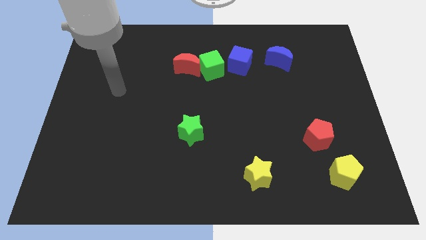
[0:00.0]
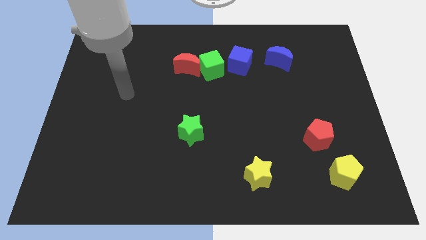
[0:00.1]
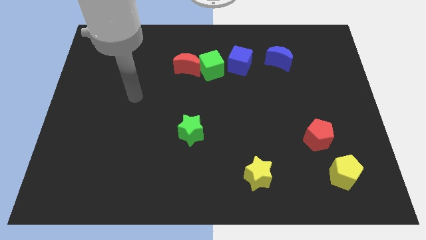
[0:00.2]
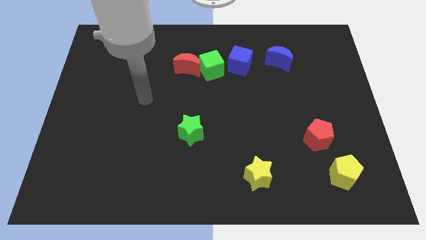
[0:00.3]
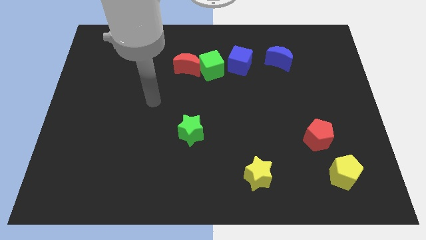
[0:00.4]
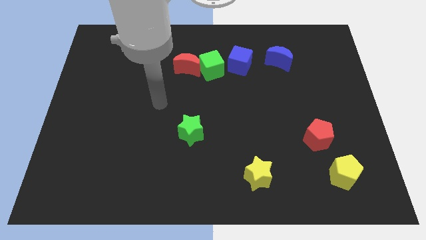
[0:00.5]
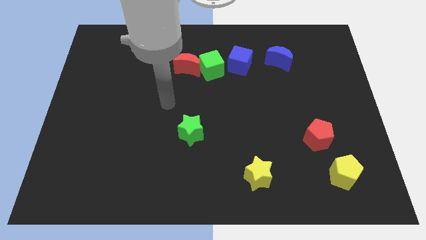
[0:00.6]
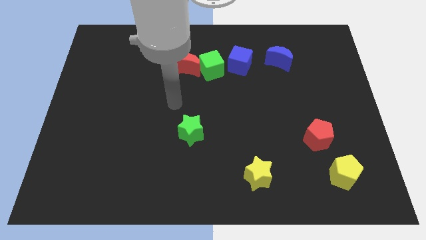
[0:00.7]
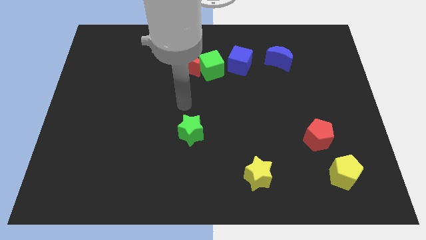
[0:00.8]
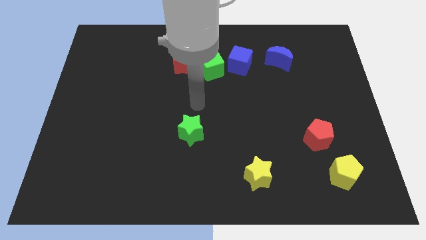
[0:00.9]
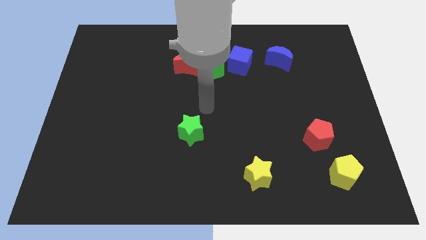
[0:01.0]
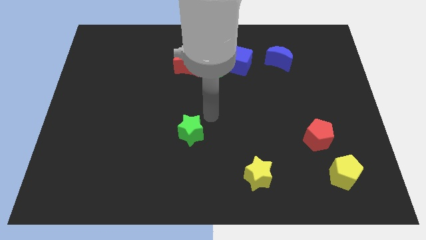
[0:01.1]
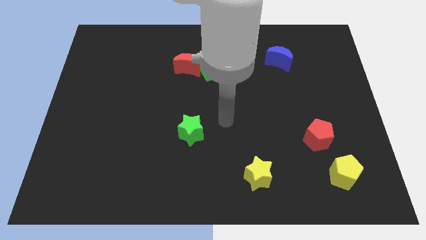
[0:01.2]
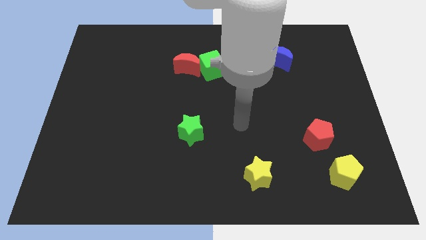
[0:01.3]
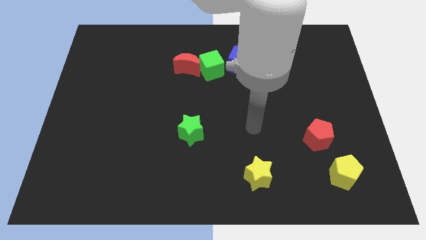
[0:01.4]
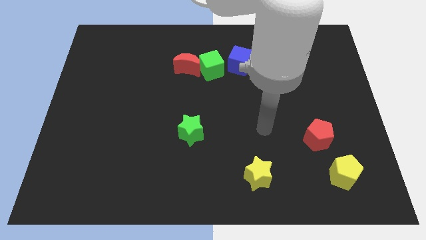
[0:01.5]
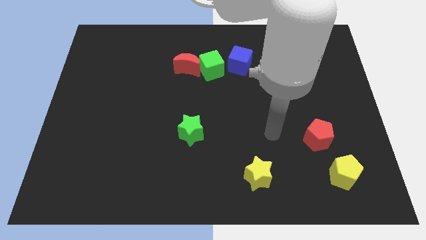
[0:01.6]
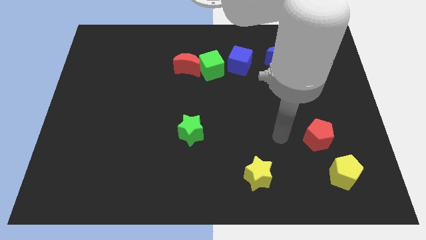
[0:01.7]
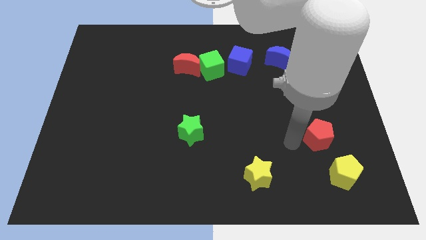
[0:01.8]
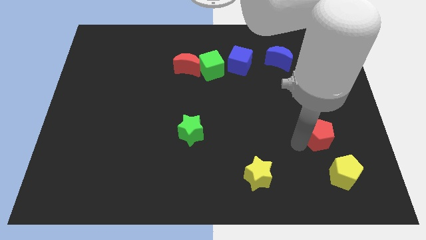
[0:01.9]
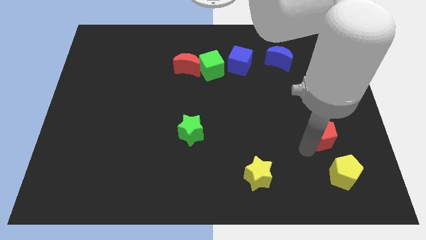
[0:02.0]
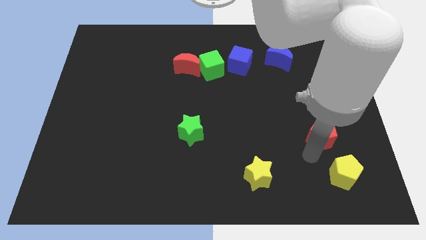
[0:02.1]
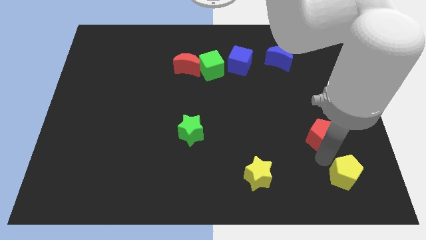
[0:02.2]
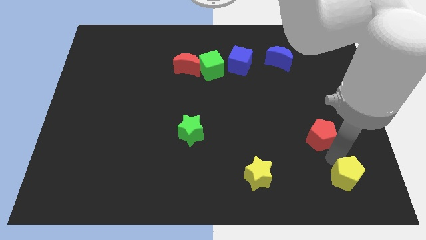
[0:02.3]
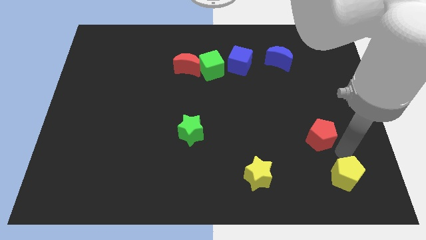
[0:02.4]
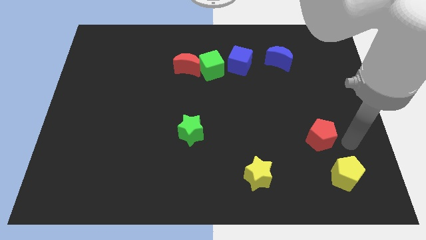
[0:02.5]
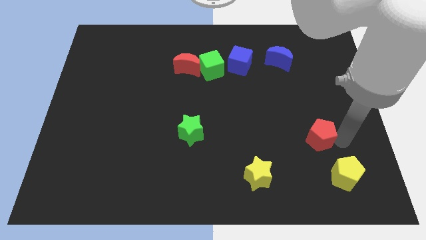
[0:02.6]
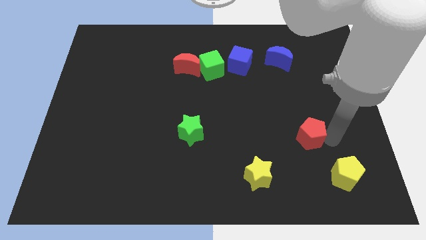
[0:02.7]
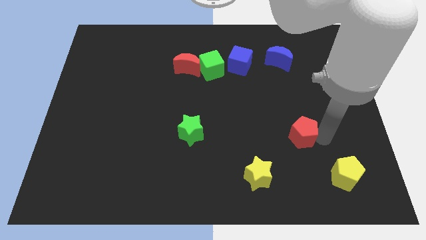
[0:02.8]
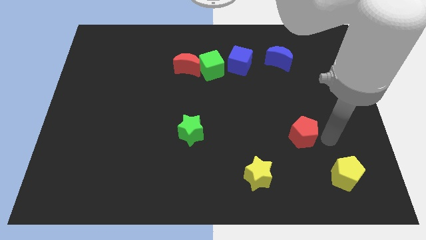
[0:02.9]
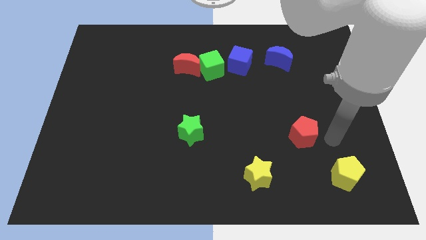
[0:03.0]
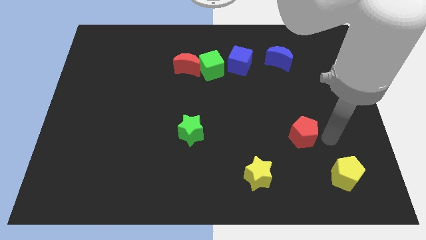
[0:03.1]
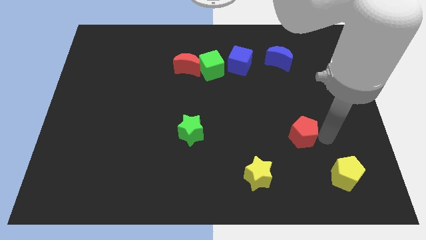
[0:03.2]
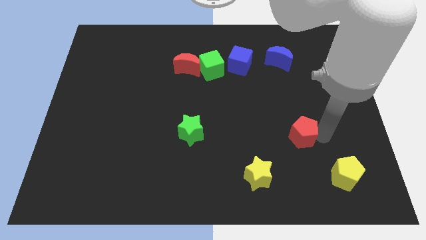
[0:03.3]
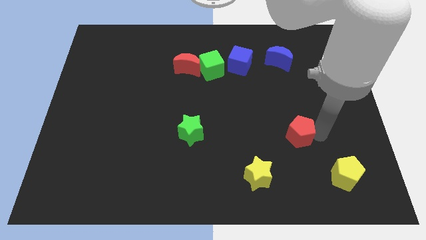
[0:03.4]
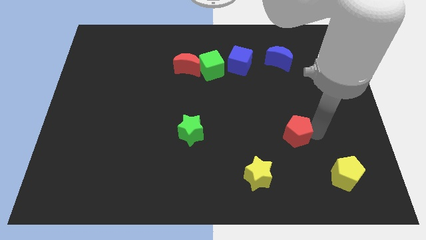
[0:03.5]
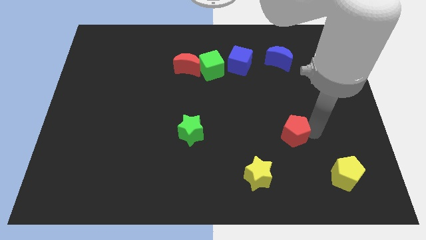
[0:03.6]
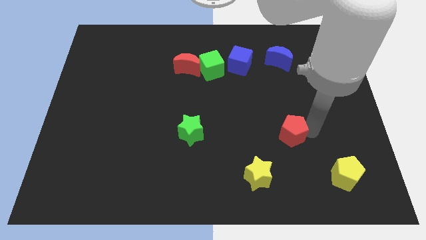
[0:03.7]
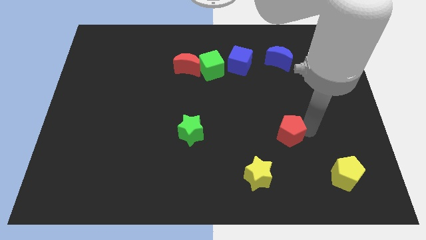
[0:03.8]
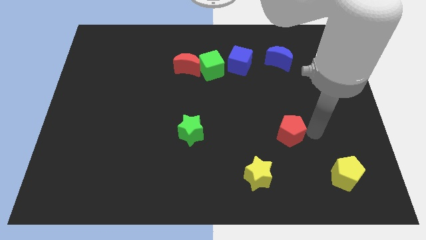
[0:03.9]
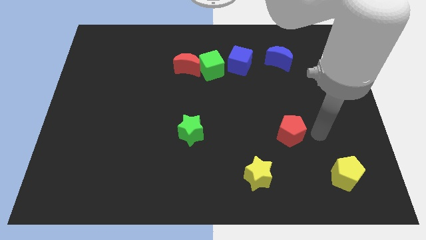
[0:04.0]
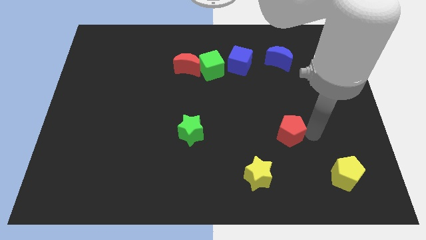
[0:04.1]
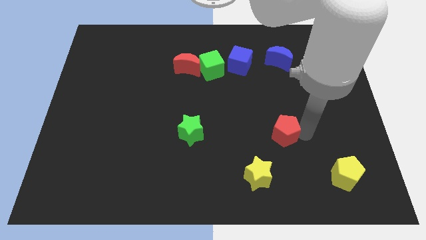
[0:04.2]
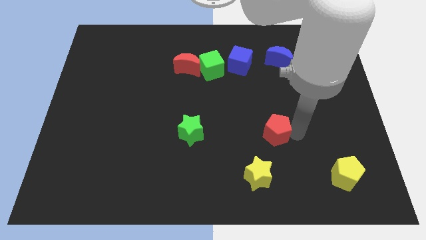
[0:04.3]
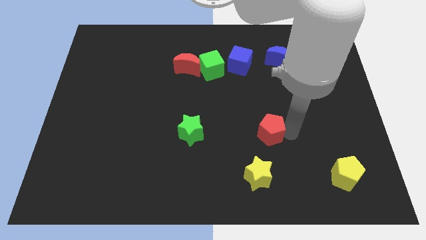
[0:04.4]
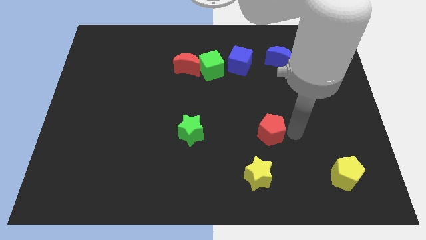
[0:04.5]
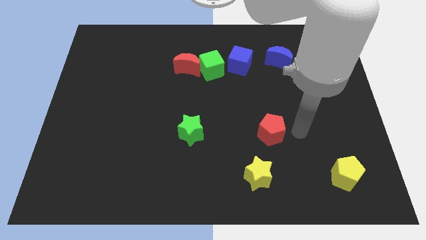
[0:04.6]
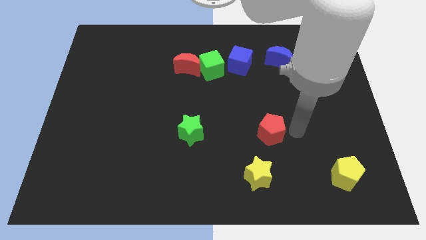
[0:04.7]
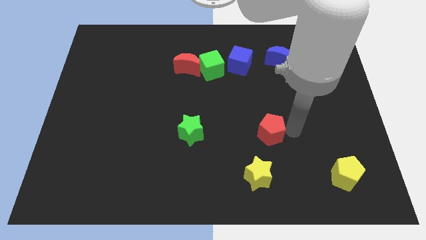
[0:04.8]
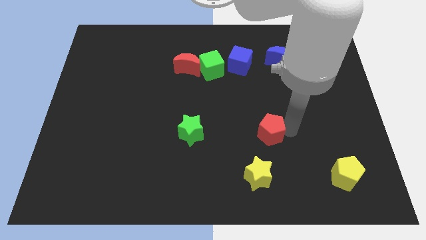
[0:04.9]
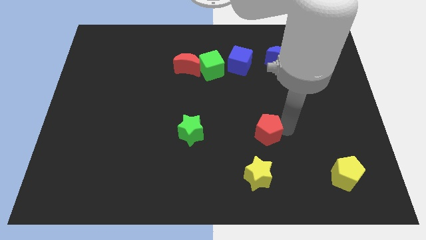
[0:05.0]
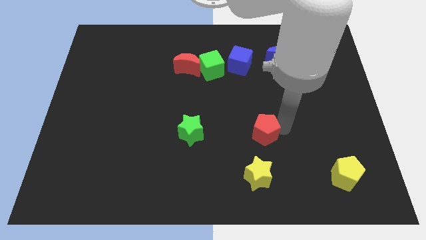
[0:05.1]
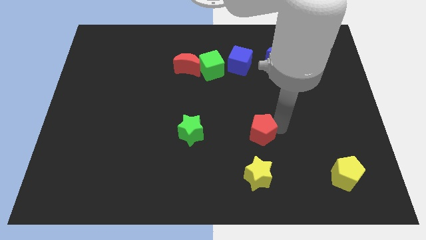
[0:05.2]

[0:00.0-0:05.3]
slide the red pentagon to the right side of the green star

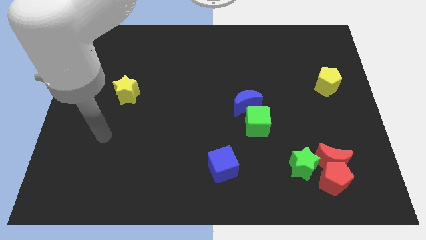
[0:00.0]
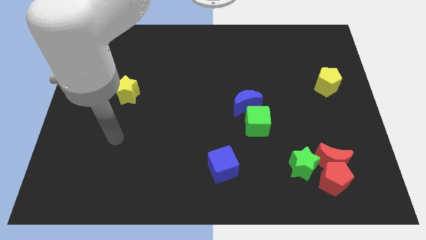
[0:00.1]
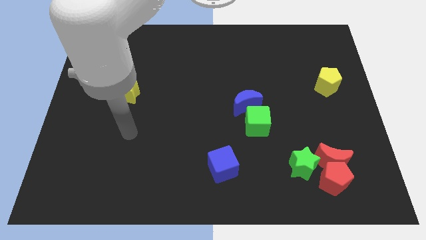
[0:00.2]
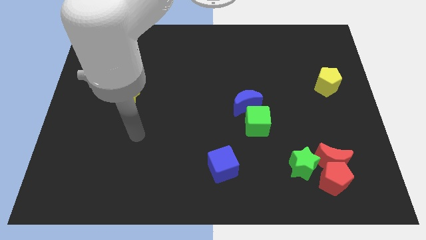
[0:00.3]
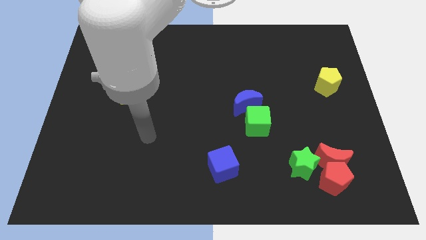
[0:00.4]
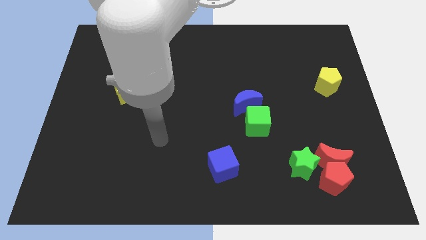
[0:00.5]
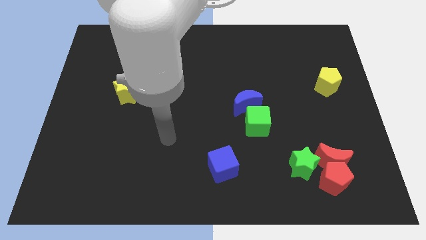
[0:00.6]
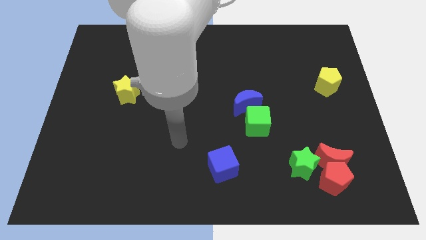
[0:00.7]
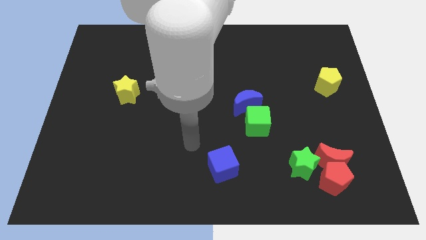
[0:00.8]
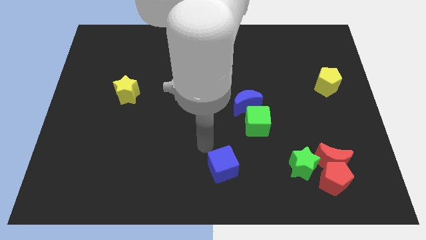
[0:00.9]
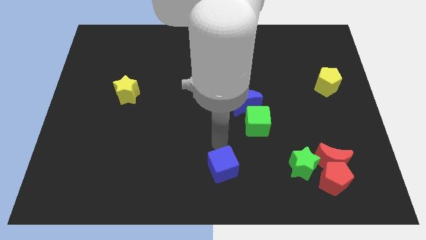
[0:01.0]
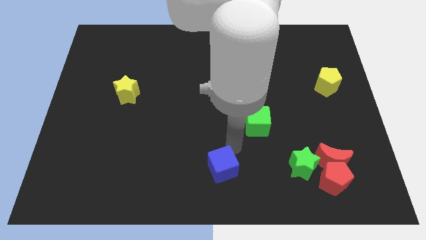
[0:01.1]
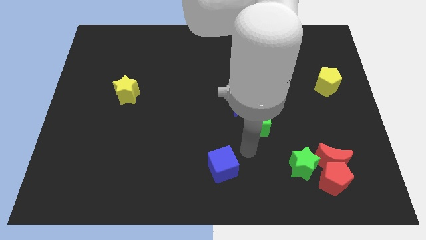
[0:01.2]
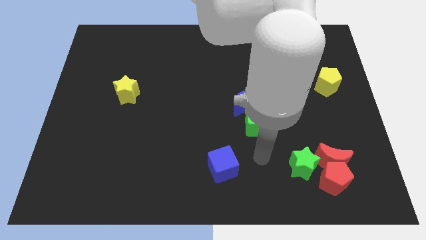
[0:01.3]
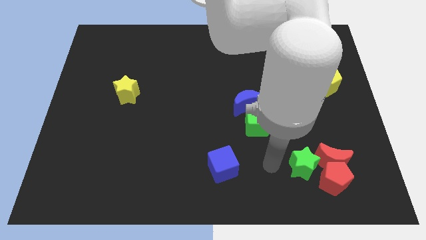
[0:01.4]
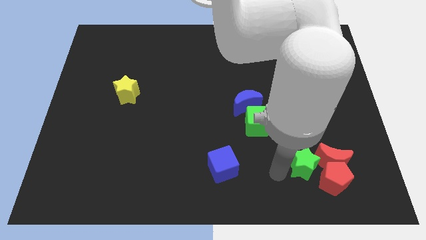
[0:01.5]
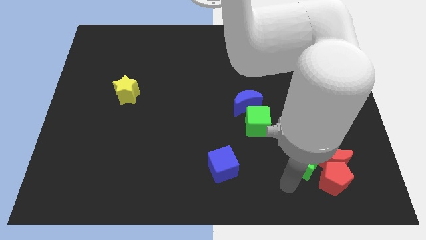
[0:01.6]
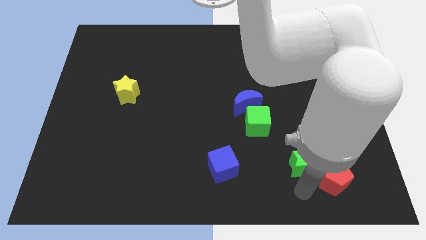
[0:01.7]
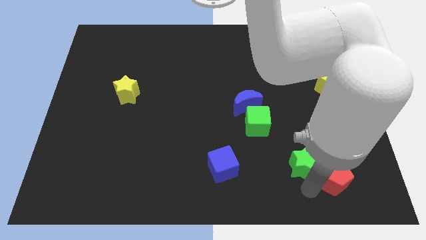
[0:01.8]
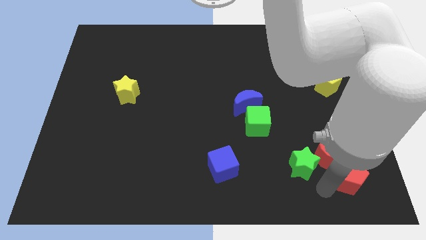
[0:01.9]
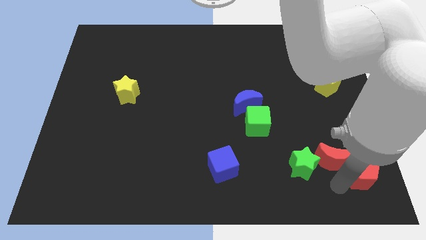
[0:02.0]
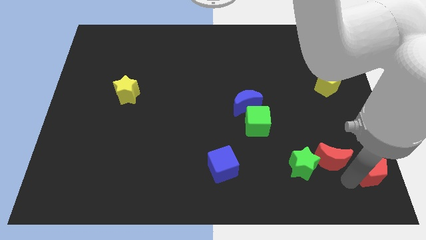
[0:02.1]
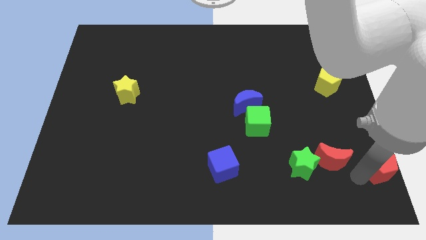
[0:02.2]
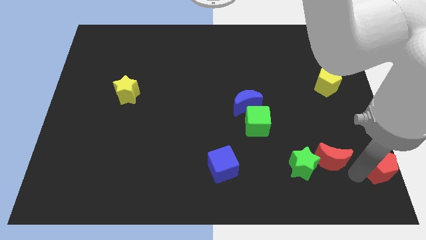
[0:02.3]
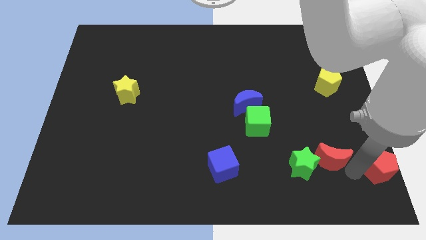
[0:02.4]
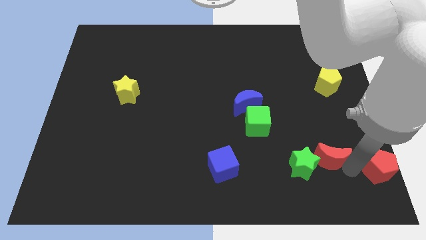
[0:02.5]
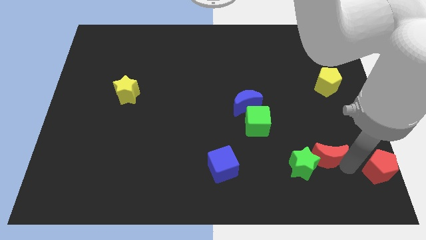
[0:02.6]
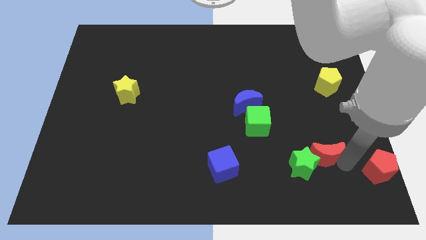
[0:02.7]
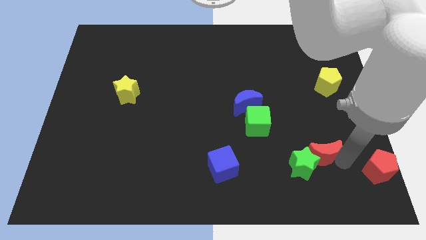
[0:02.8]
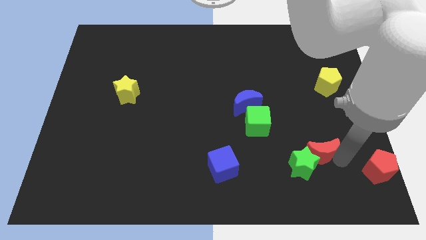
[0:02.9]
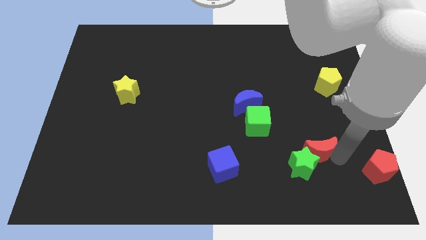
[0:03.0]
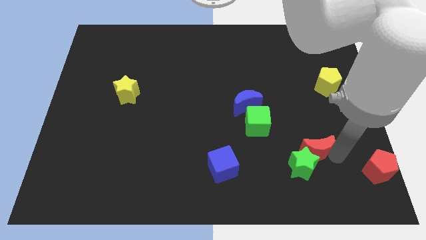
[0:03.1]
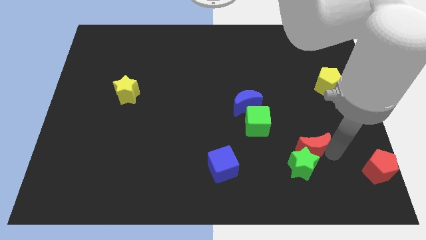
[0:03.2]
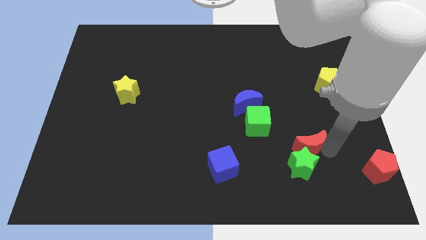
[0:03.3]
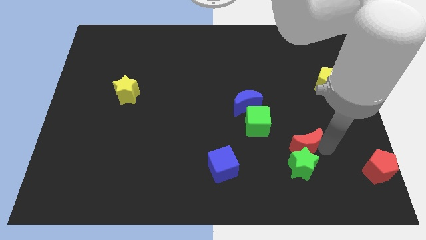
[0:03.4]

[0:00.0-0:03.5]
push the red moon to the top left of the green star
